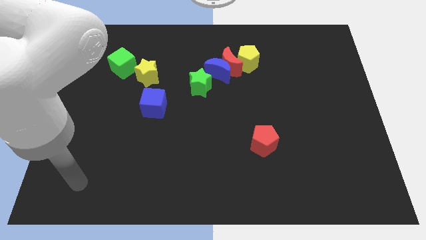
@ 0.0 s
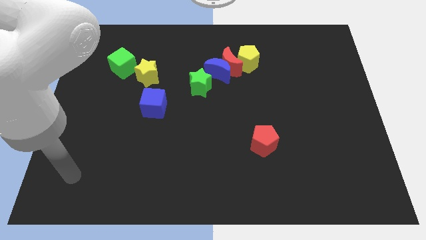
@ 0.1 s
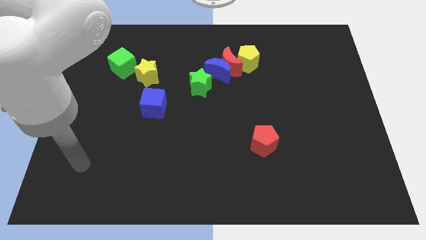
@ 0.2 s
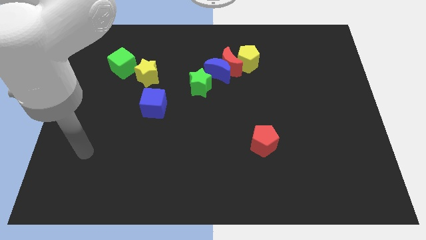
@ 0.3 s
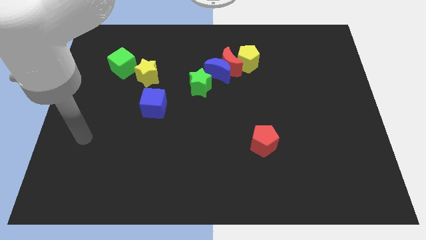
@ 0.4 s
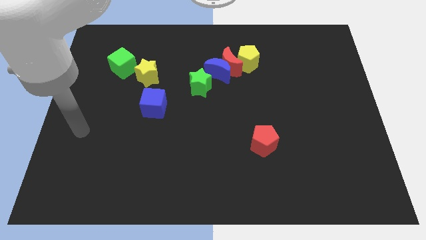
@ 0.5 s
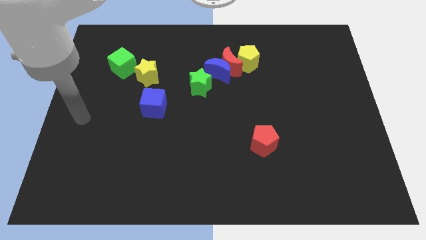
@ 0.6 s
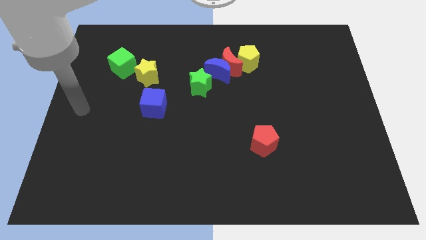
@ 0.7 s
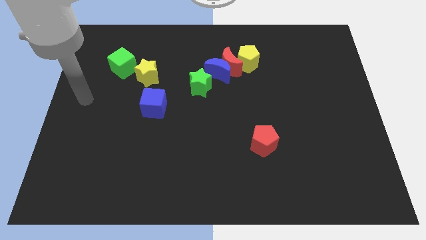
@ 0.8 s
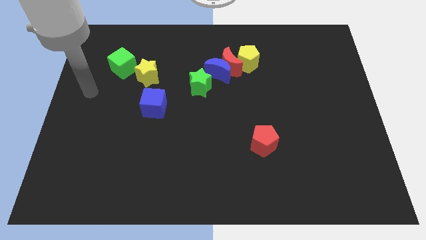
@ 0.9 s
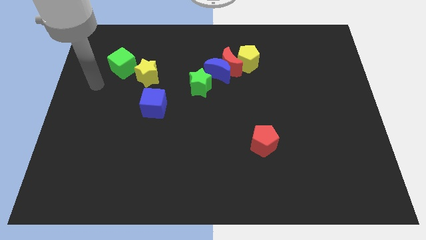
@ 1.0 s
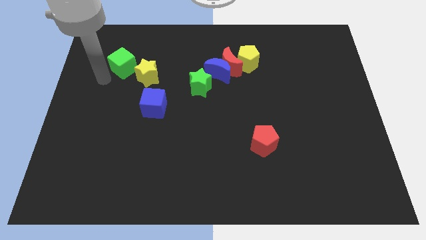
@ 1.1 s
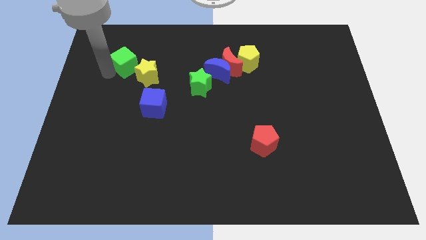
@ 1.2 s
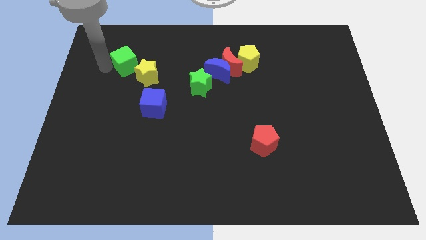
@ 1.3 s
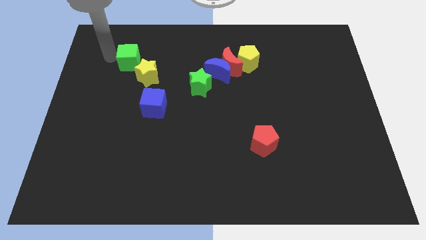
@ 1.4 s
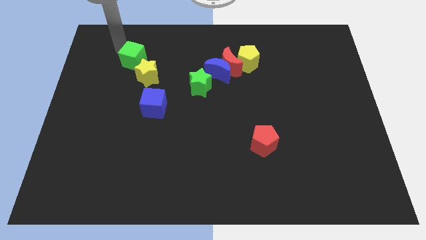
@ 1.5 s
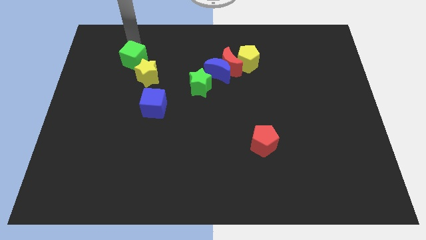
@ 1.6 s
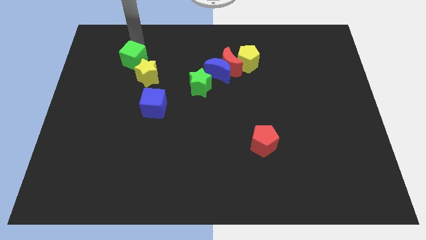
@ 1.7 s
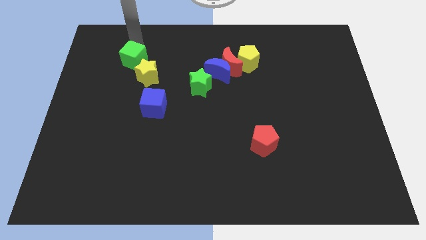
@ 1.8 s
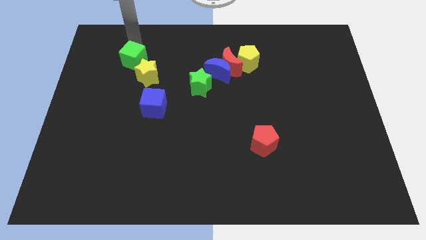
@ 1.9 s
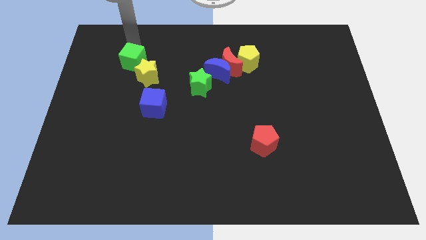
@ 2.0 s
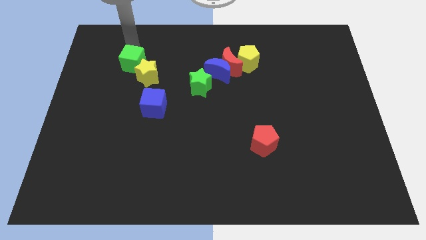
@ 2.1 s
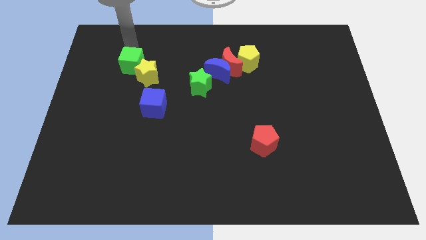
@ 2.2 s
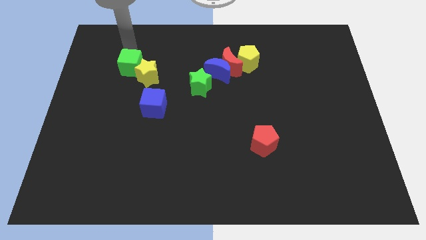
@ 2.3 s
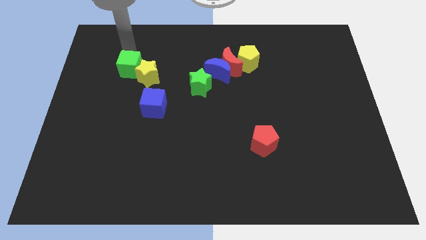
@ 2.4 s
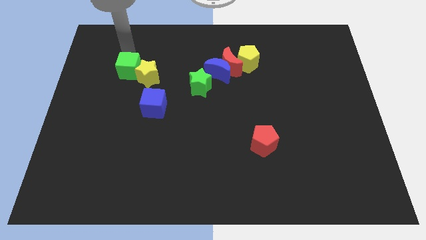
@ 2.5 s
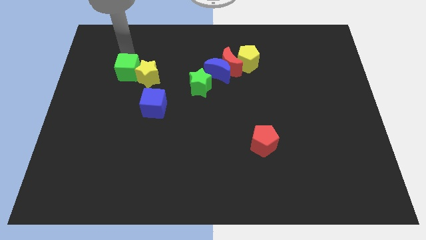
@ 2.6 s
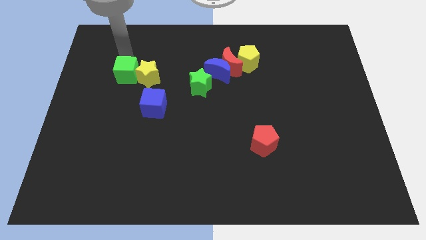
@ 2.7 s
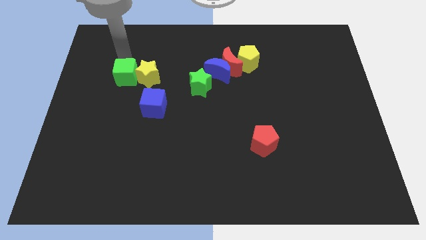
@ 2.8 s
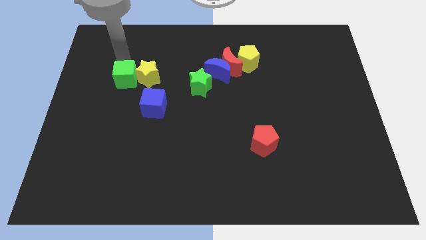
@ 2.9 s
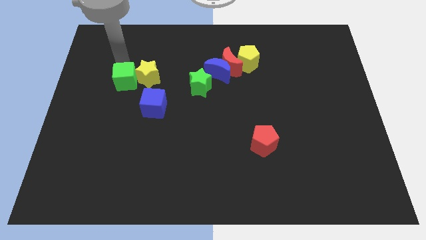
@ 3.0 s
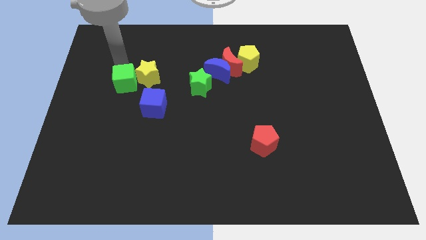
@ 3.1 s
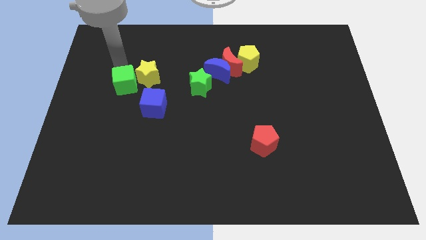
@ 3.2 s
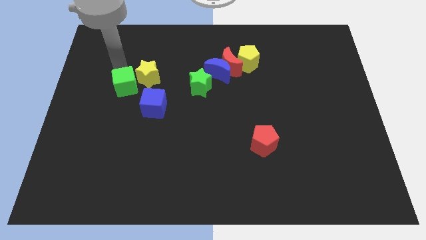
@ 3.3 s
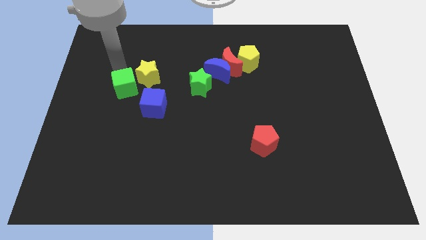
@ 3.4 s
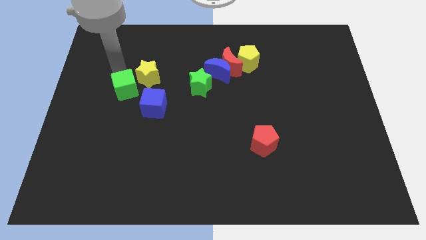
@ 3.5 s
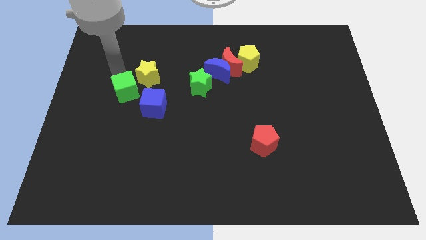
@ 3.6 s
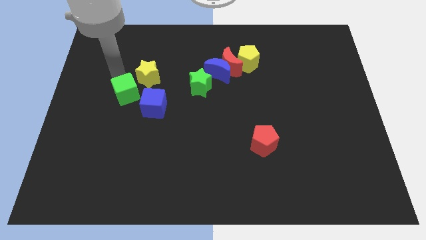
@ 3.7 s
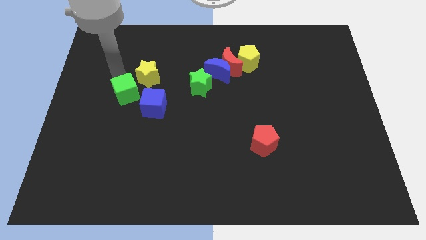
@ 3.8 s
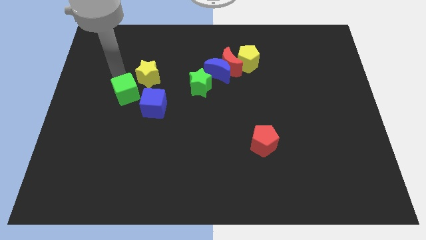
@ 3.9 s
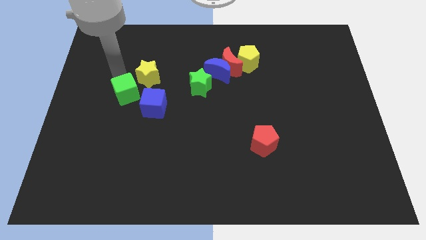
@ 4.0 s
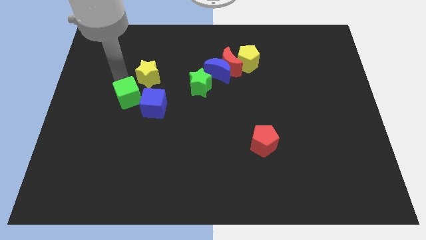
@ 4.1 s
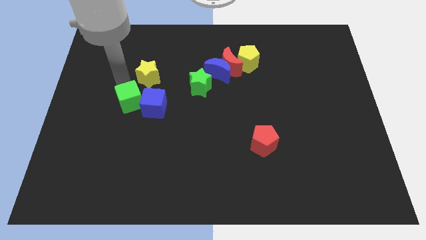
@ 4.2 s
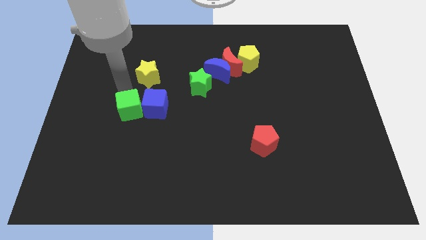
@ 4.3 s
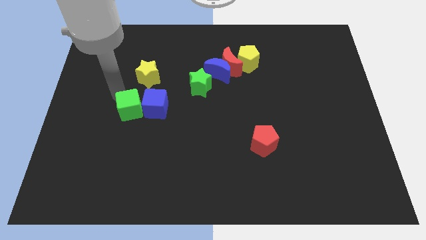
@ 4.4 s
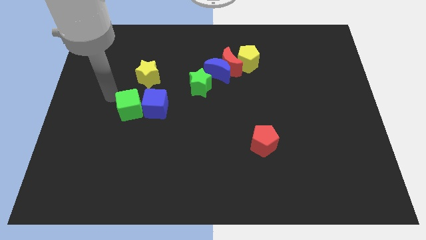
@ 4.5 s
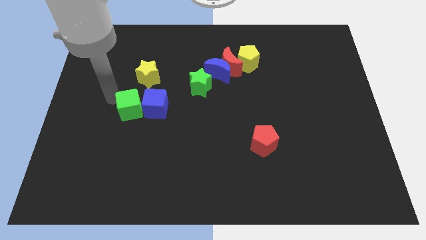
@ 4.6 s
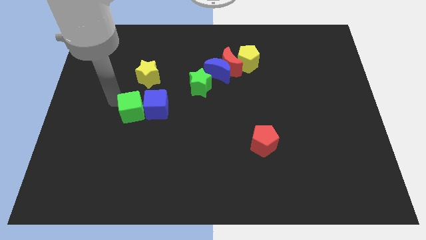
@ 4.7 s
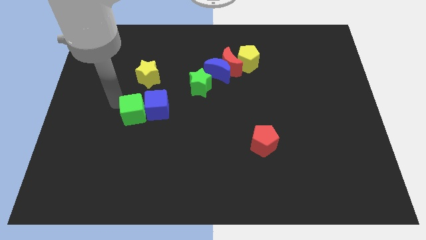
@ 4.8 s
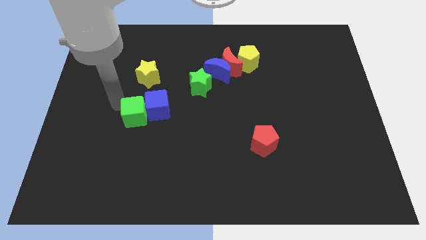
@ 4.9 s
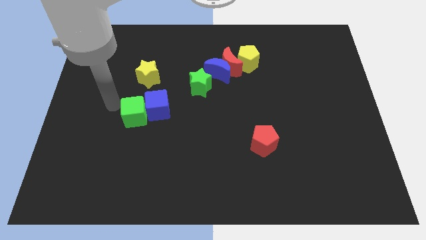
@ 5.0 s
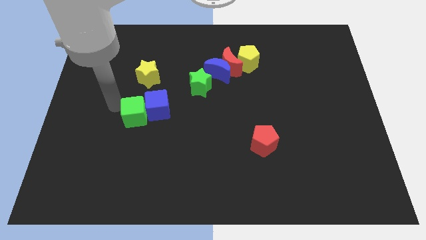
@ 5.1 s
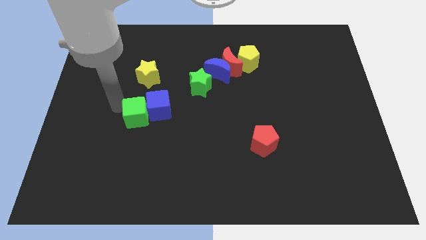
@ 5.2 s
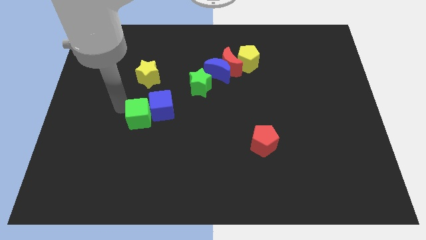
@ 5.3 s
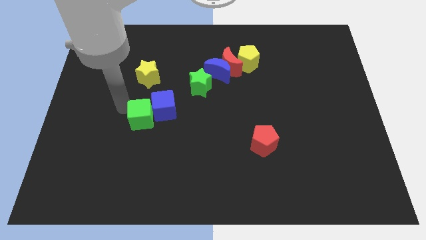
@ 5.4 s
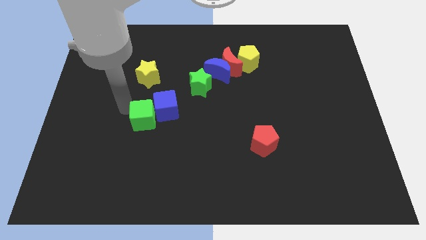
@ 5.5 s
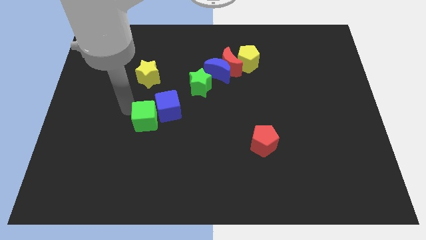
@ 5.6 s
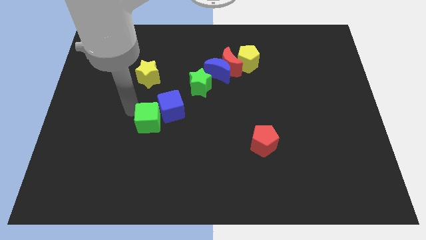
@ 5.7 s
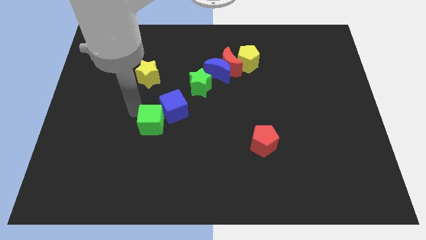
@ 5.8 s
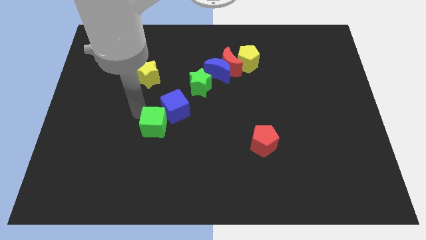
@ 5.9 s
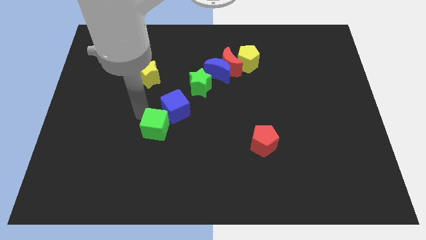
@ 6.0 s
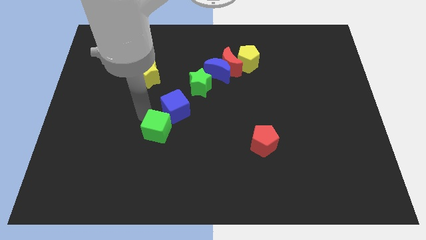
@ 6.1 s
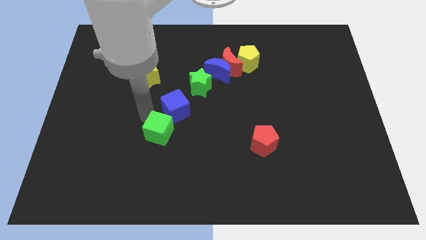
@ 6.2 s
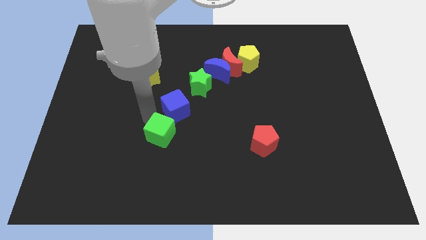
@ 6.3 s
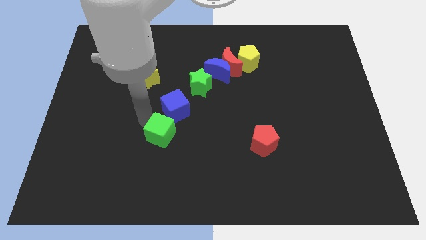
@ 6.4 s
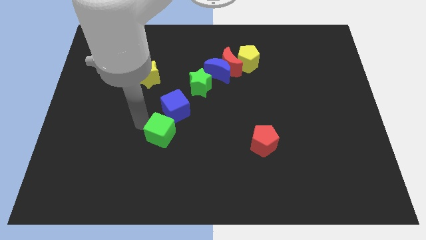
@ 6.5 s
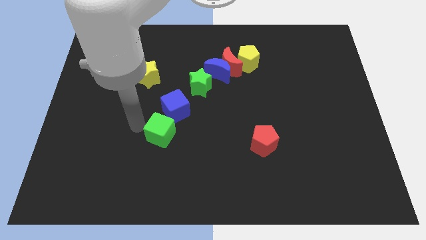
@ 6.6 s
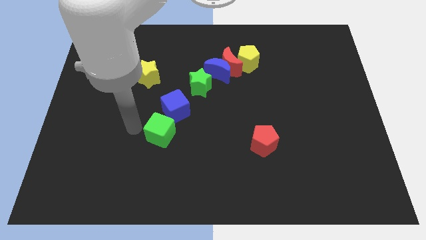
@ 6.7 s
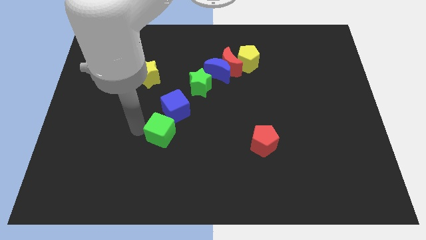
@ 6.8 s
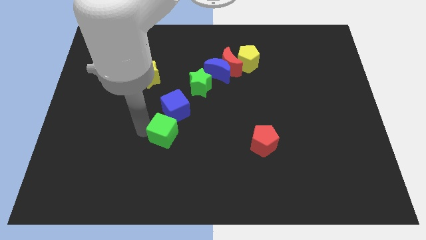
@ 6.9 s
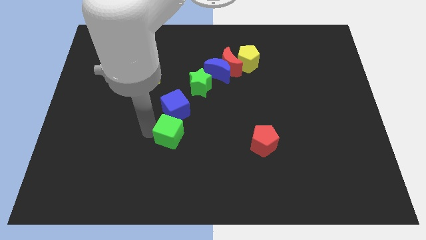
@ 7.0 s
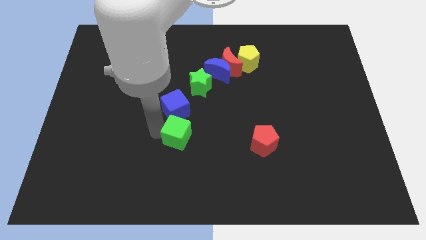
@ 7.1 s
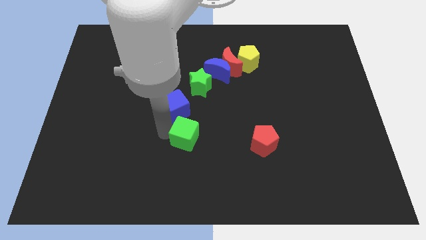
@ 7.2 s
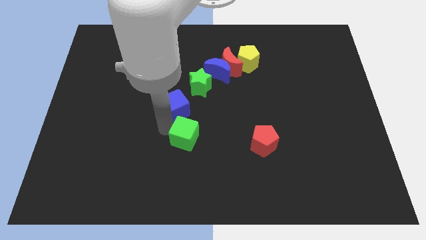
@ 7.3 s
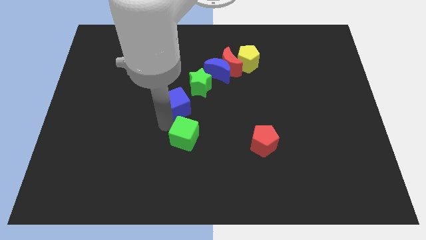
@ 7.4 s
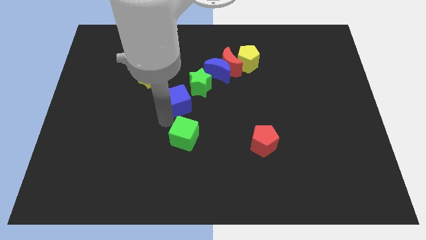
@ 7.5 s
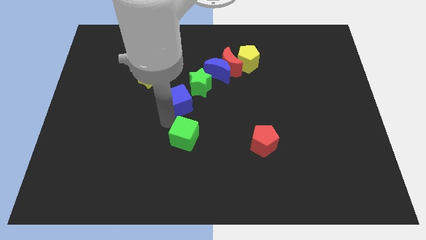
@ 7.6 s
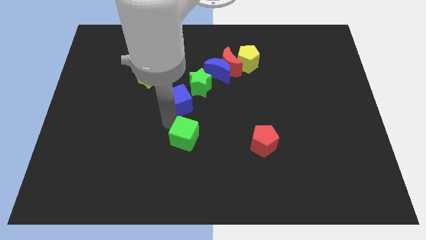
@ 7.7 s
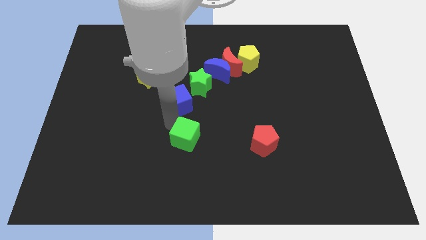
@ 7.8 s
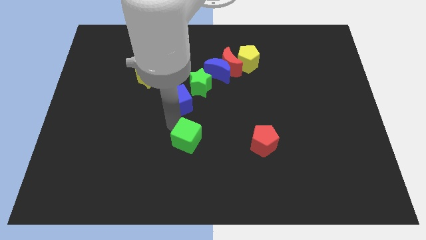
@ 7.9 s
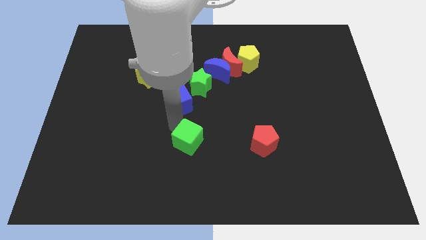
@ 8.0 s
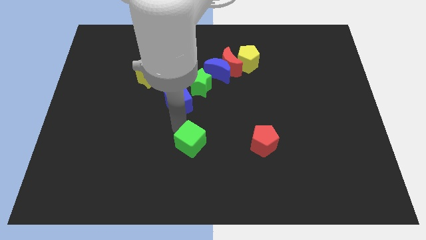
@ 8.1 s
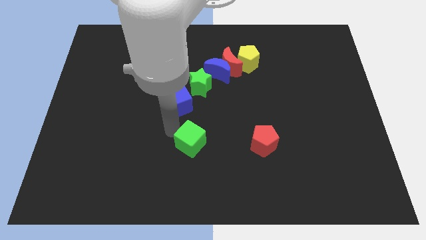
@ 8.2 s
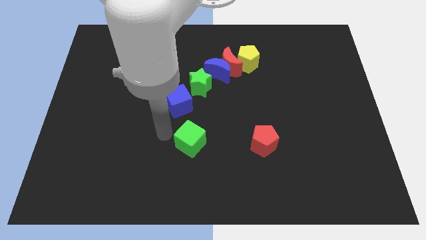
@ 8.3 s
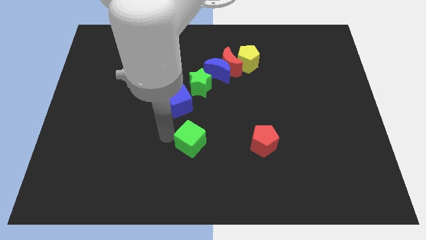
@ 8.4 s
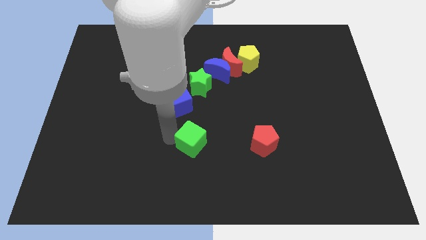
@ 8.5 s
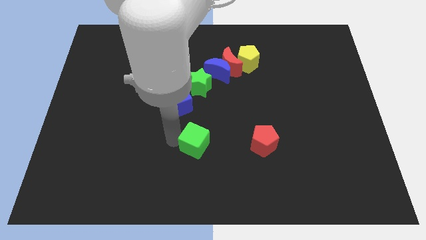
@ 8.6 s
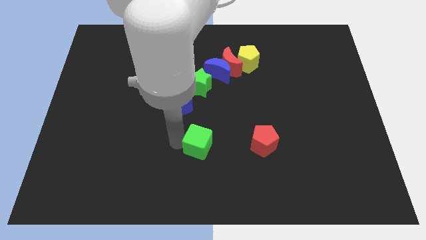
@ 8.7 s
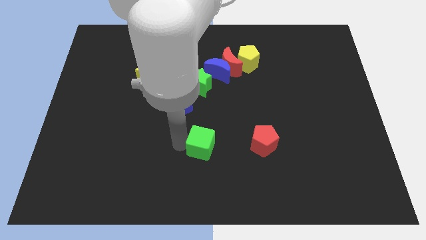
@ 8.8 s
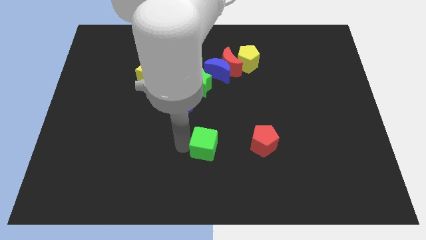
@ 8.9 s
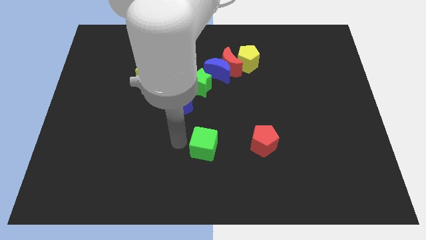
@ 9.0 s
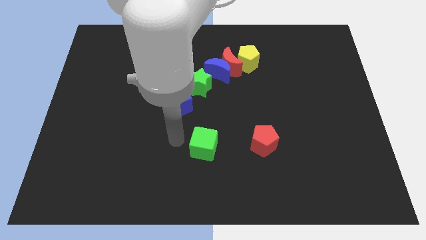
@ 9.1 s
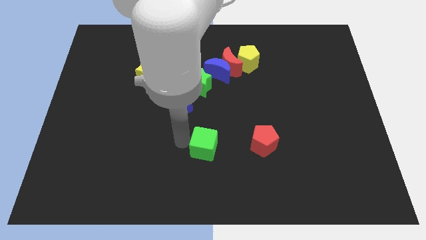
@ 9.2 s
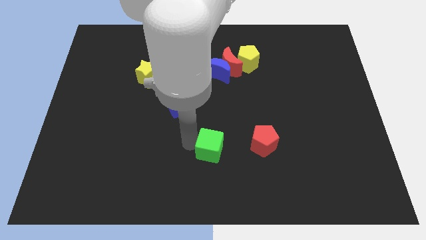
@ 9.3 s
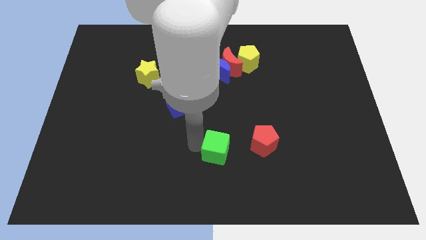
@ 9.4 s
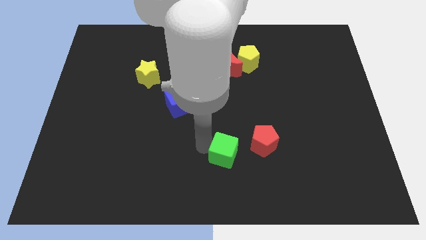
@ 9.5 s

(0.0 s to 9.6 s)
move the green cube to the bottom left side of the red pentagon
